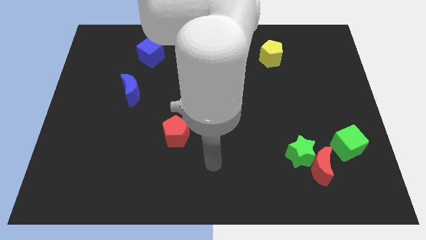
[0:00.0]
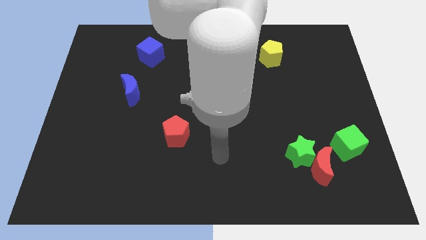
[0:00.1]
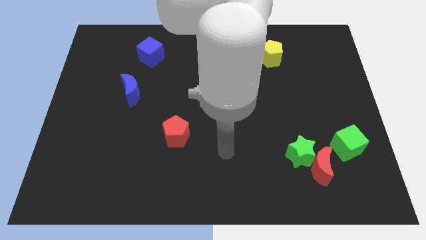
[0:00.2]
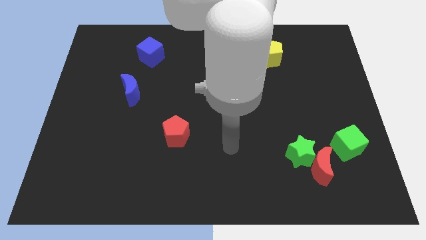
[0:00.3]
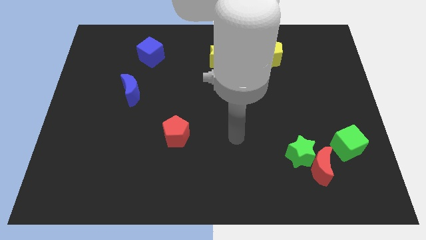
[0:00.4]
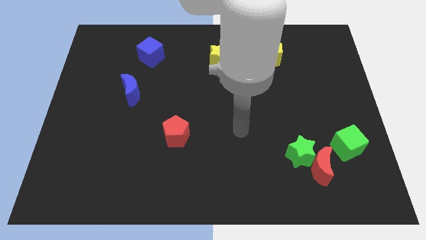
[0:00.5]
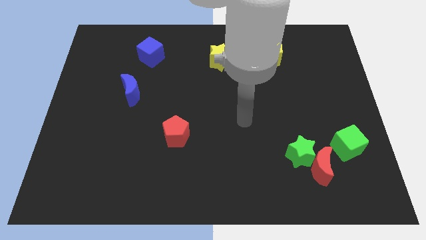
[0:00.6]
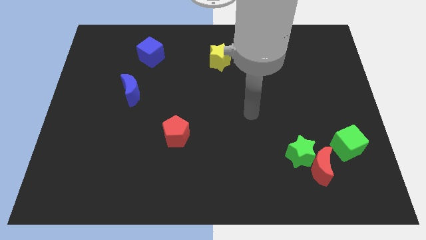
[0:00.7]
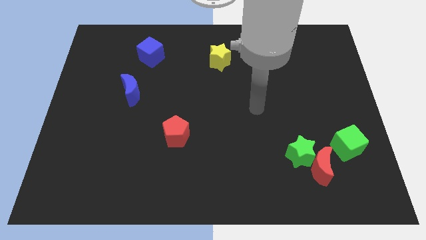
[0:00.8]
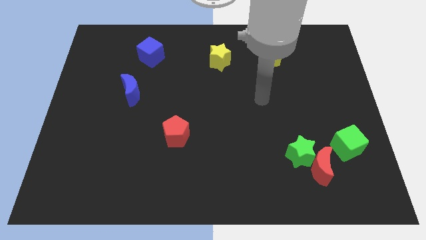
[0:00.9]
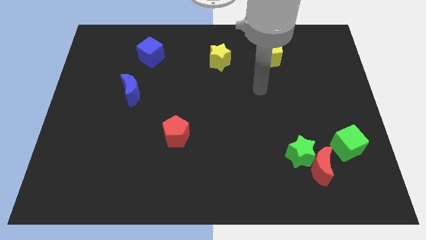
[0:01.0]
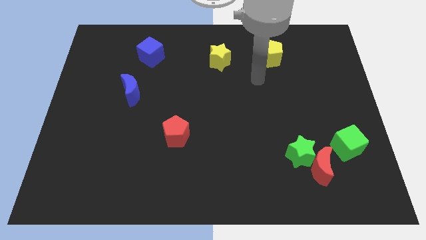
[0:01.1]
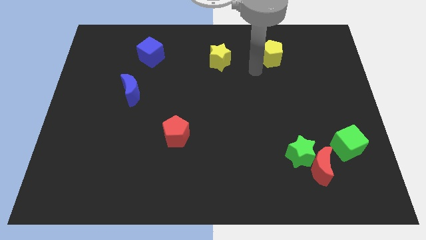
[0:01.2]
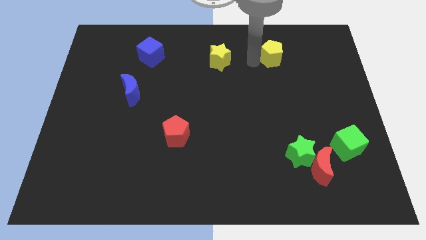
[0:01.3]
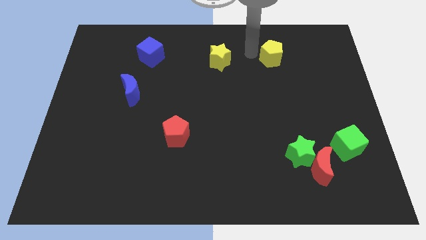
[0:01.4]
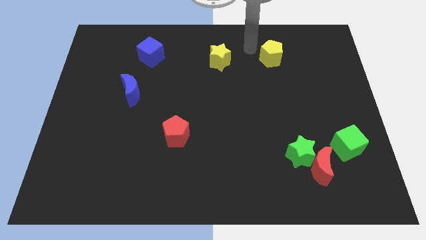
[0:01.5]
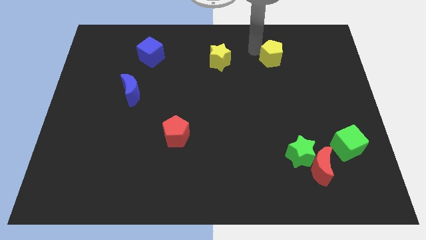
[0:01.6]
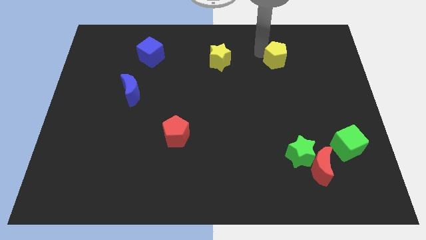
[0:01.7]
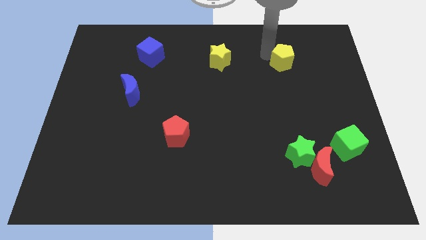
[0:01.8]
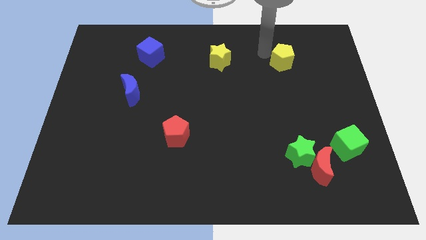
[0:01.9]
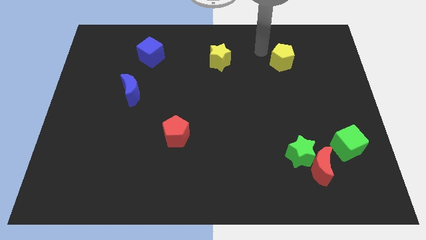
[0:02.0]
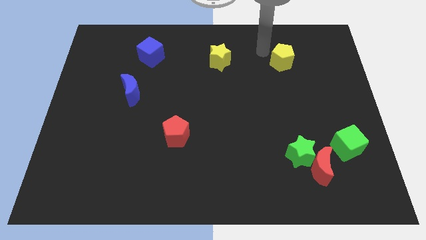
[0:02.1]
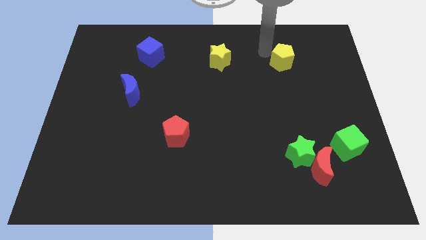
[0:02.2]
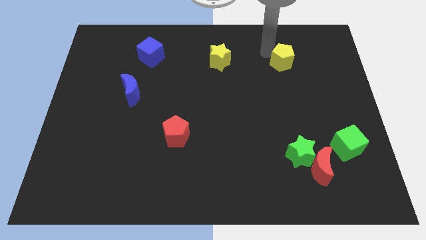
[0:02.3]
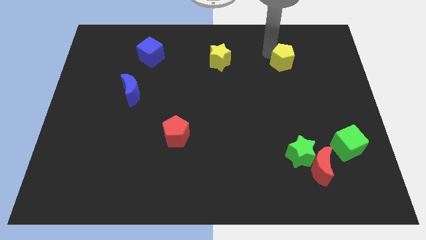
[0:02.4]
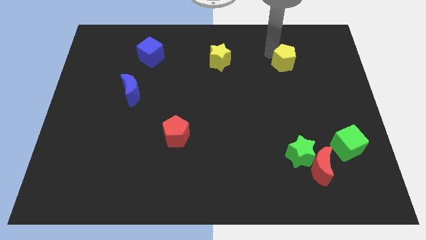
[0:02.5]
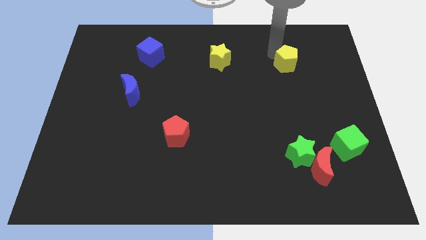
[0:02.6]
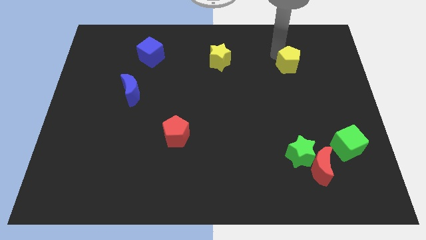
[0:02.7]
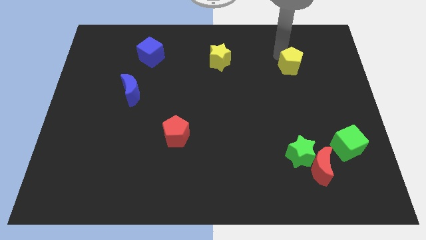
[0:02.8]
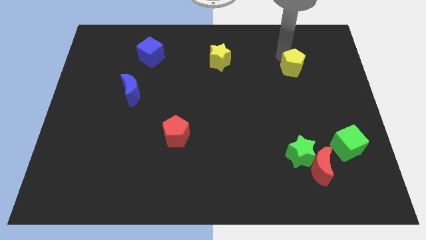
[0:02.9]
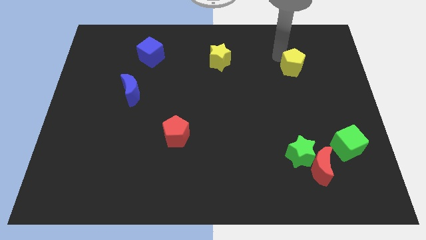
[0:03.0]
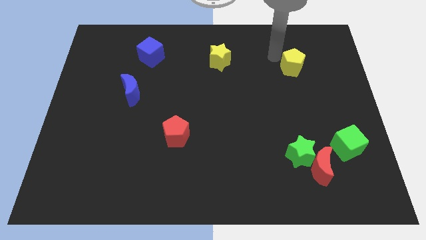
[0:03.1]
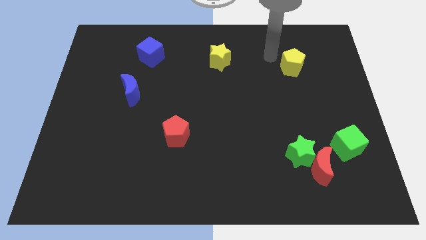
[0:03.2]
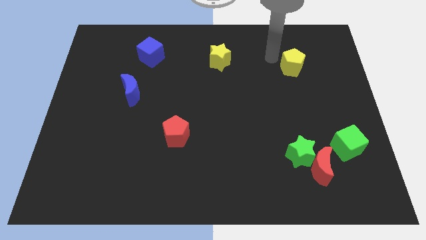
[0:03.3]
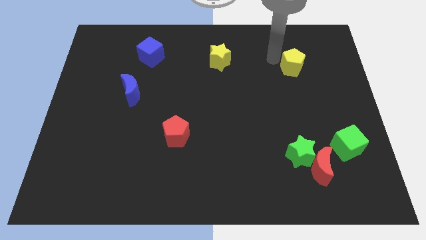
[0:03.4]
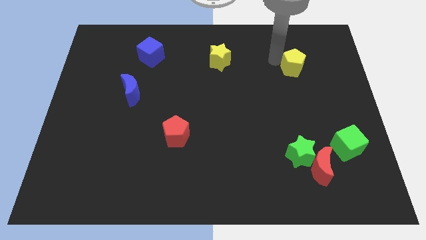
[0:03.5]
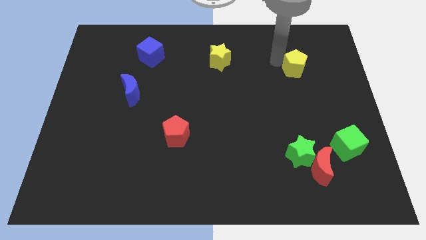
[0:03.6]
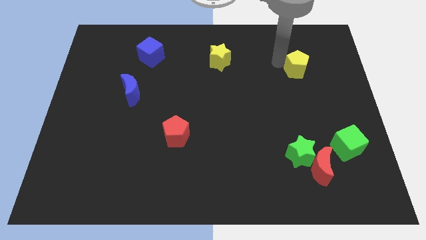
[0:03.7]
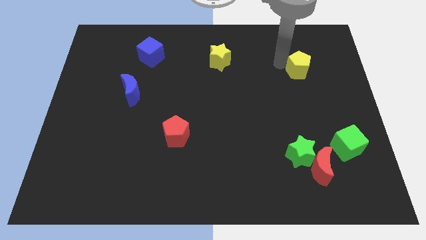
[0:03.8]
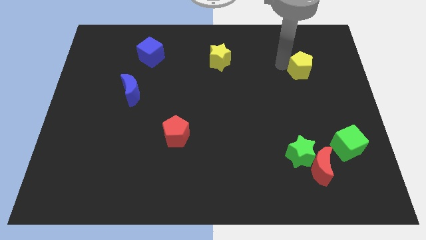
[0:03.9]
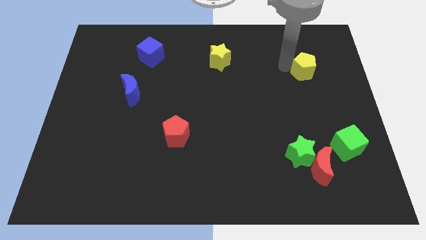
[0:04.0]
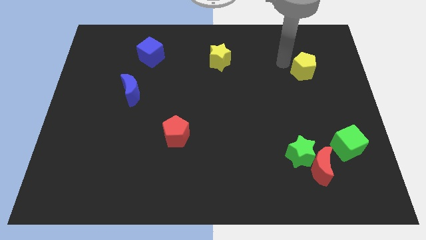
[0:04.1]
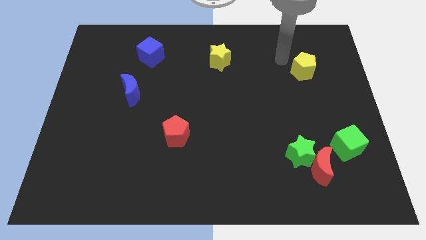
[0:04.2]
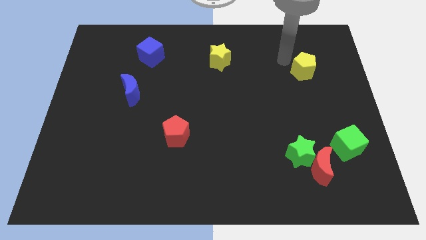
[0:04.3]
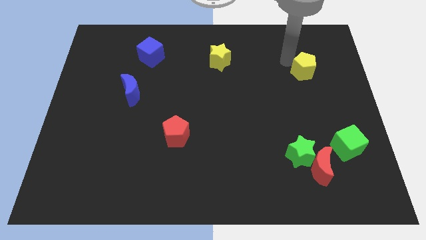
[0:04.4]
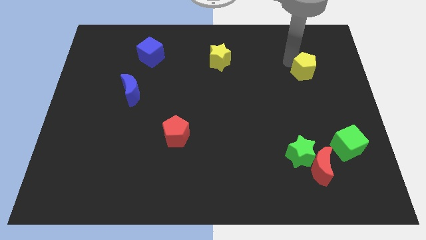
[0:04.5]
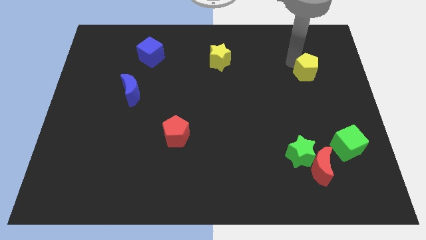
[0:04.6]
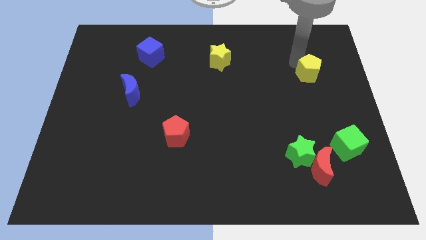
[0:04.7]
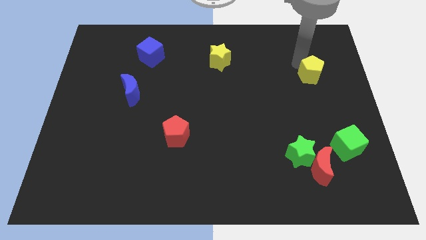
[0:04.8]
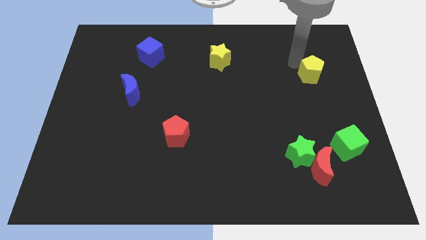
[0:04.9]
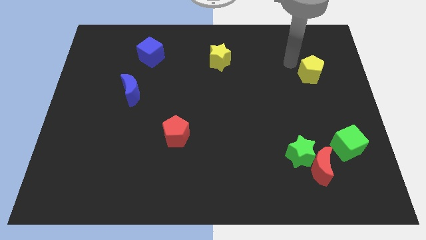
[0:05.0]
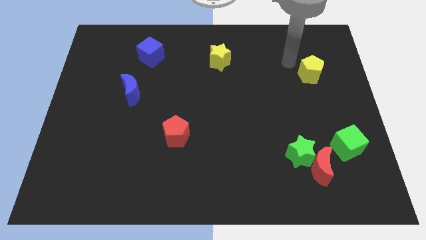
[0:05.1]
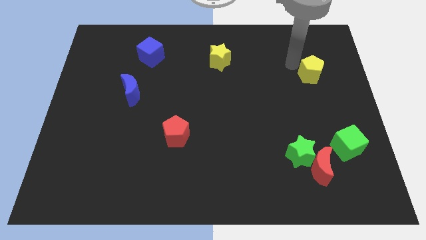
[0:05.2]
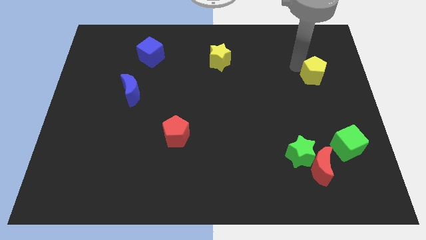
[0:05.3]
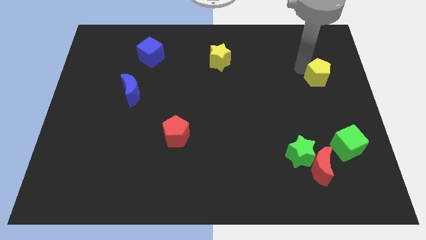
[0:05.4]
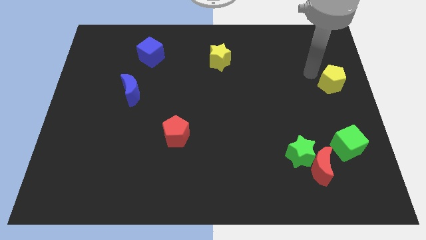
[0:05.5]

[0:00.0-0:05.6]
move the yellow pentagon to the right side of the board

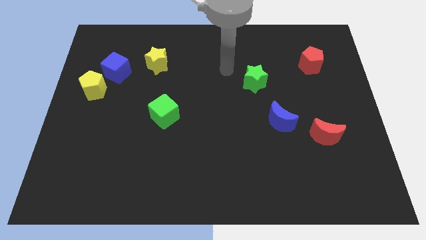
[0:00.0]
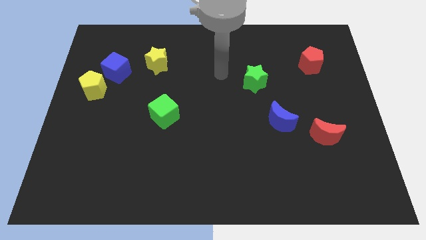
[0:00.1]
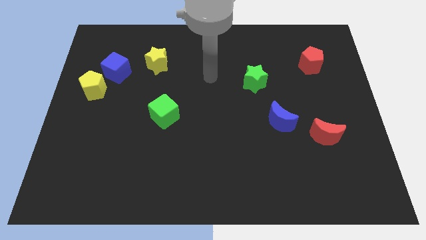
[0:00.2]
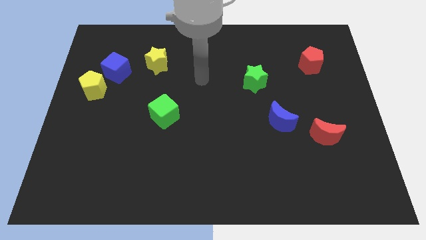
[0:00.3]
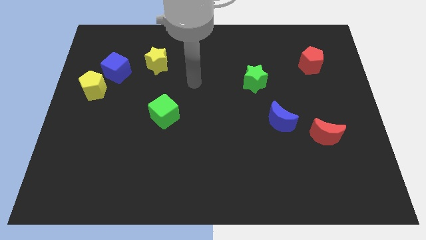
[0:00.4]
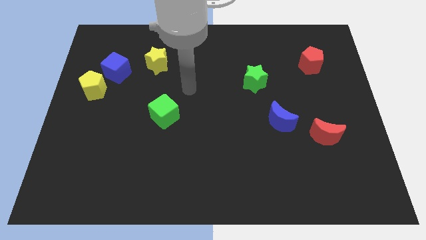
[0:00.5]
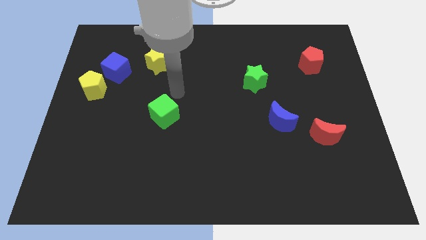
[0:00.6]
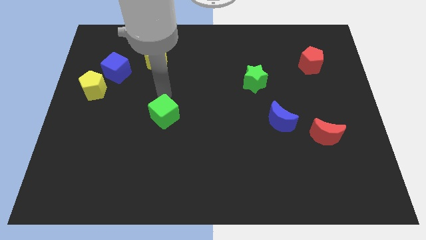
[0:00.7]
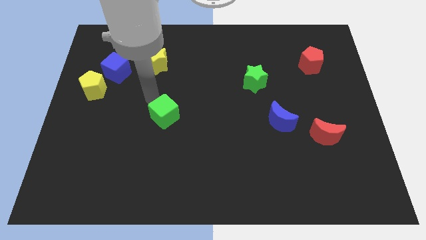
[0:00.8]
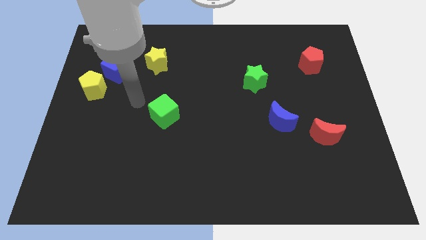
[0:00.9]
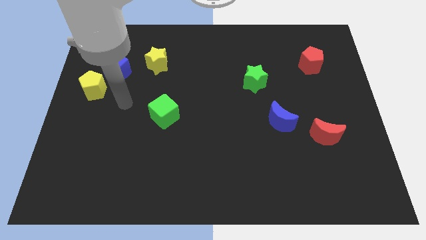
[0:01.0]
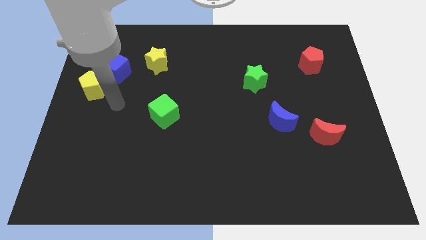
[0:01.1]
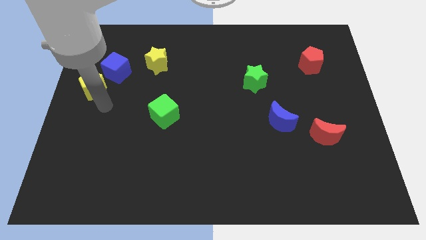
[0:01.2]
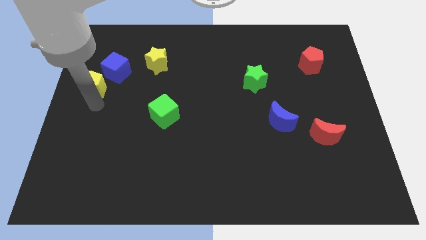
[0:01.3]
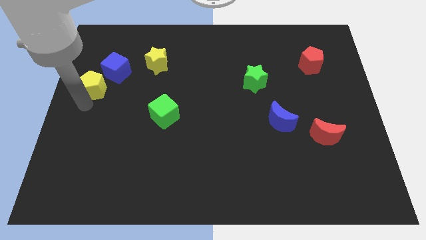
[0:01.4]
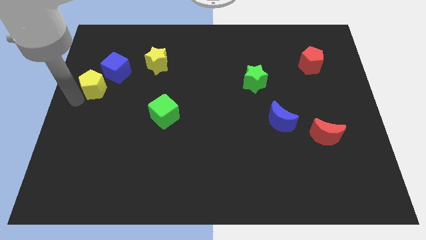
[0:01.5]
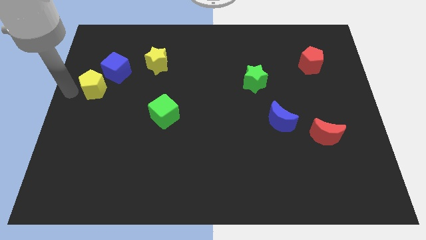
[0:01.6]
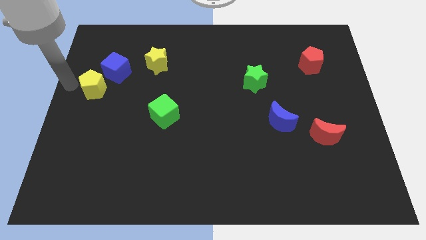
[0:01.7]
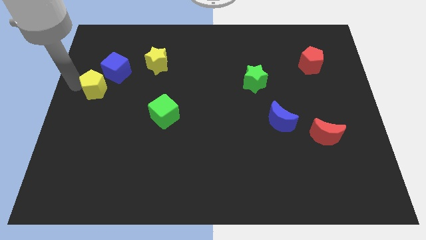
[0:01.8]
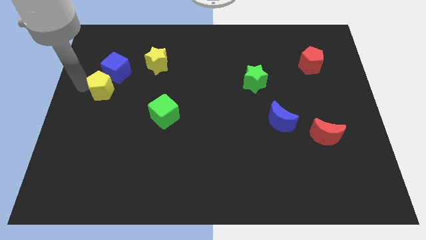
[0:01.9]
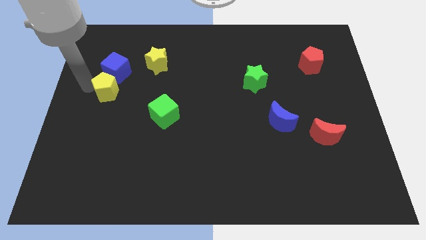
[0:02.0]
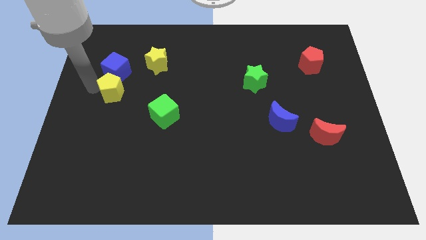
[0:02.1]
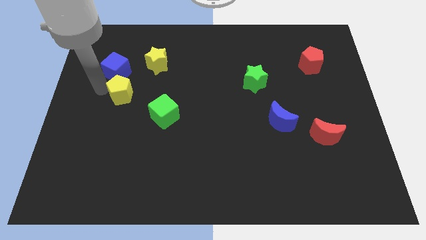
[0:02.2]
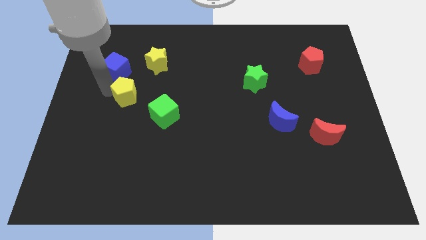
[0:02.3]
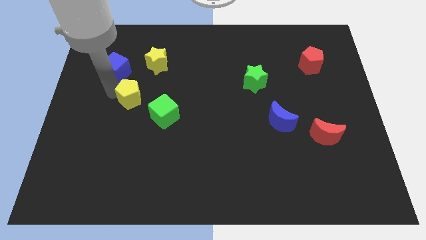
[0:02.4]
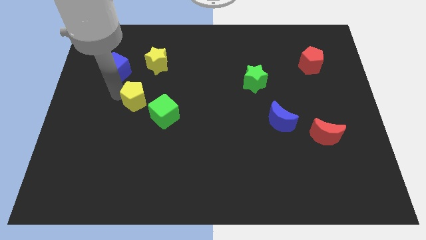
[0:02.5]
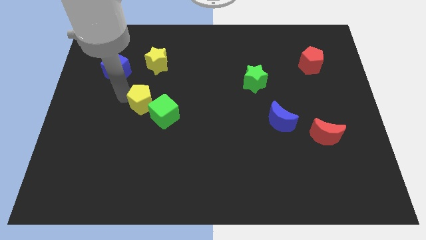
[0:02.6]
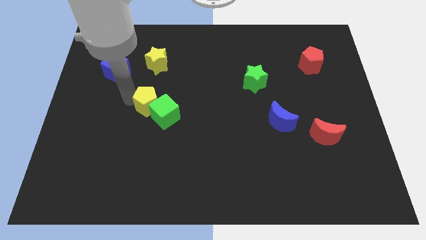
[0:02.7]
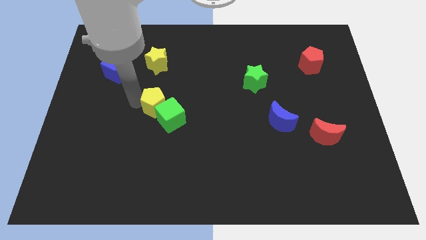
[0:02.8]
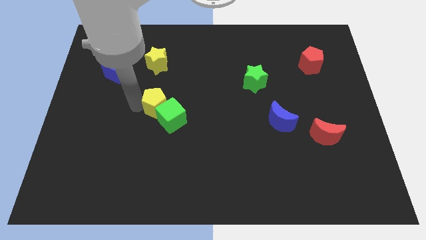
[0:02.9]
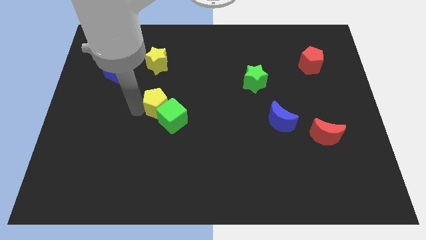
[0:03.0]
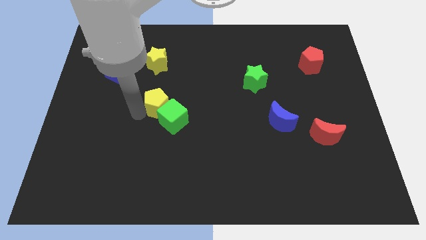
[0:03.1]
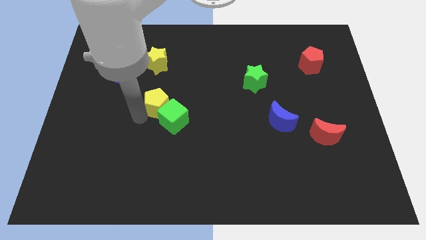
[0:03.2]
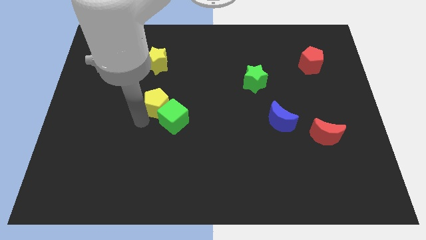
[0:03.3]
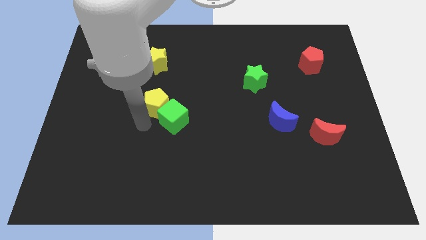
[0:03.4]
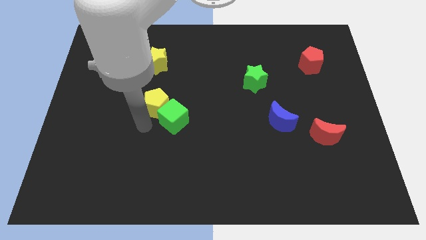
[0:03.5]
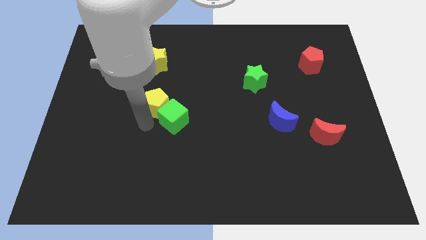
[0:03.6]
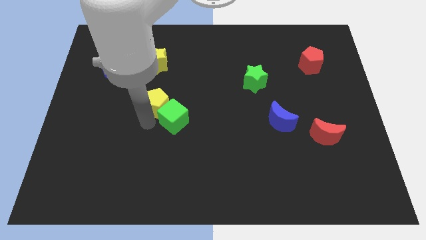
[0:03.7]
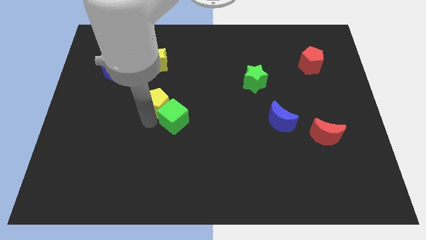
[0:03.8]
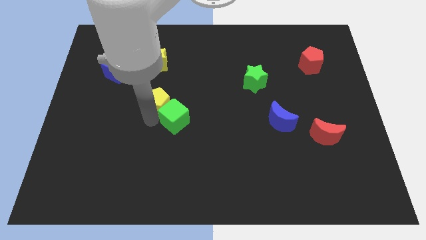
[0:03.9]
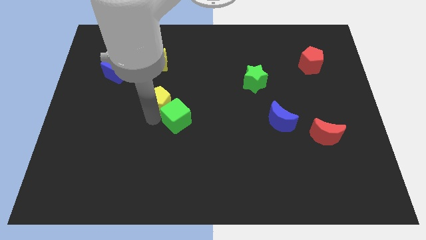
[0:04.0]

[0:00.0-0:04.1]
push the yellow pentagon to the center of the board
